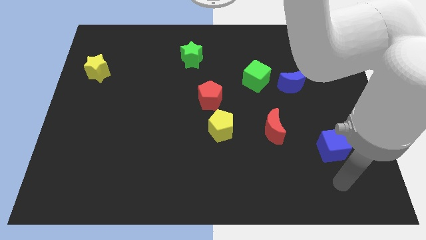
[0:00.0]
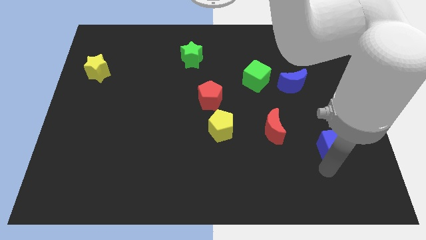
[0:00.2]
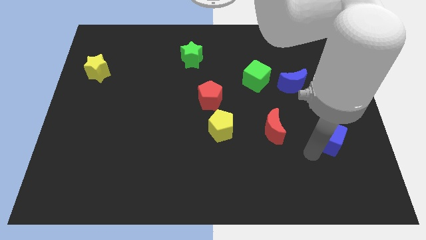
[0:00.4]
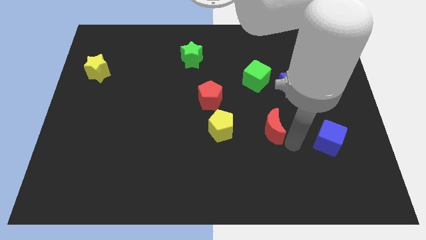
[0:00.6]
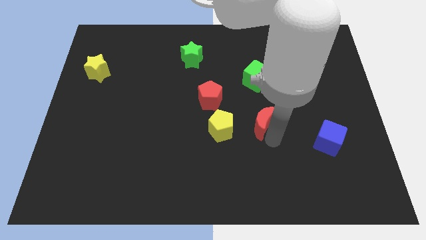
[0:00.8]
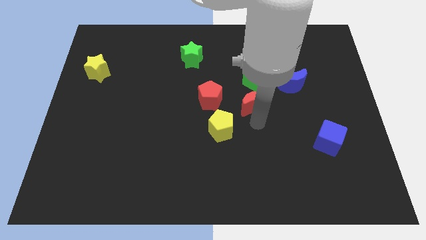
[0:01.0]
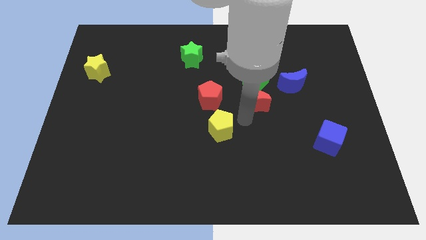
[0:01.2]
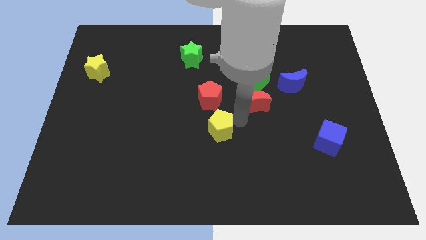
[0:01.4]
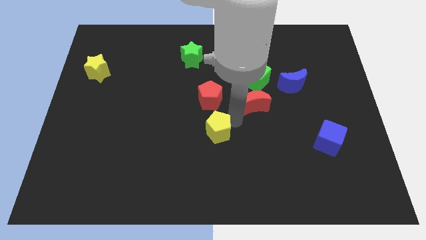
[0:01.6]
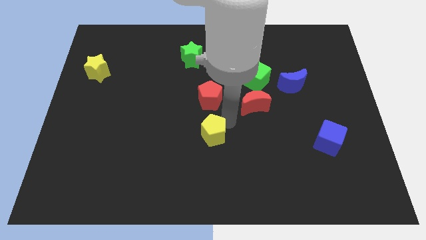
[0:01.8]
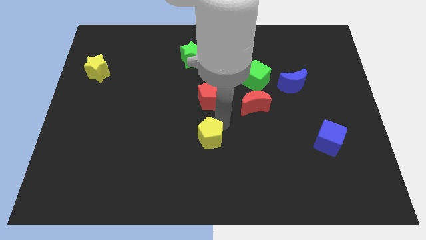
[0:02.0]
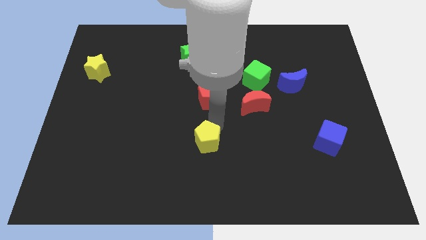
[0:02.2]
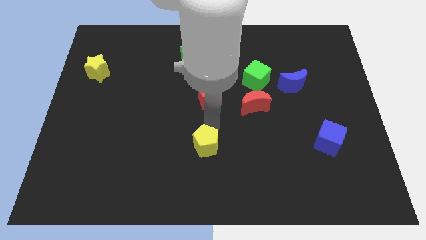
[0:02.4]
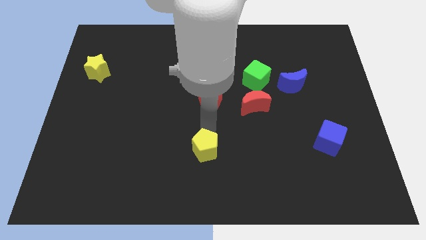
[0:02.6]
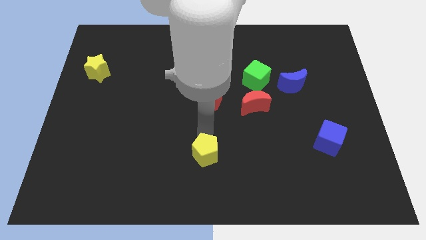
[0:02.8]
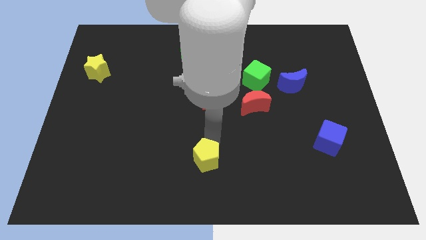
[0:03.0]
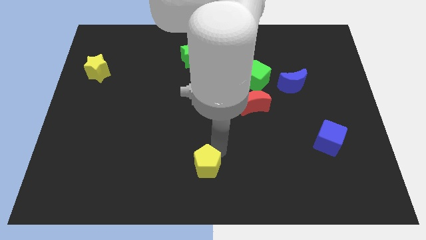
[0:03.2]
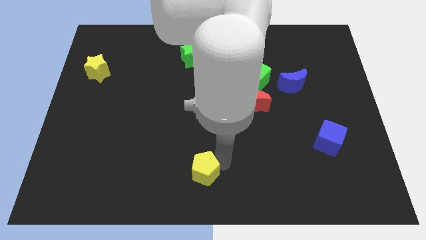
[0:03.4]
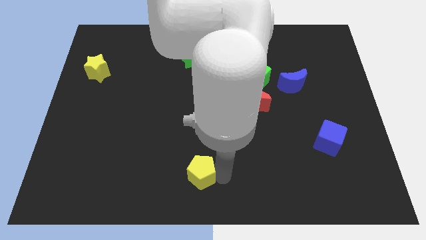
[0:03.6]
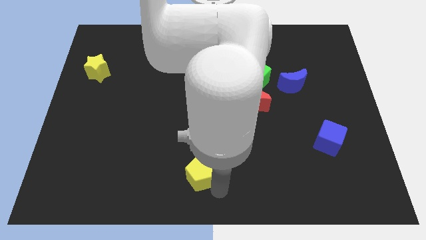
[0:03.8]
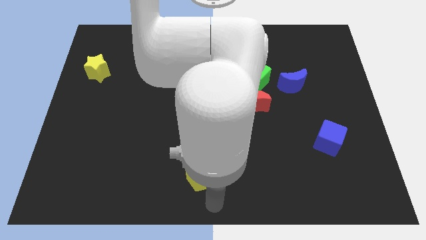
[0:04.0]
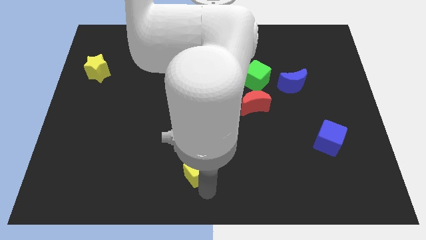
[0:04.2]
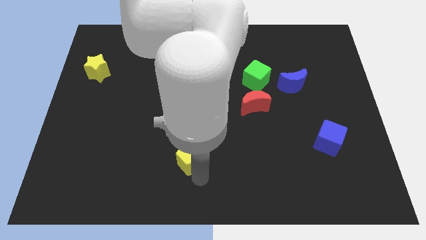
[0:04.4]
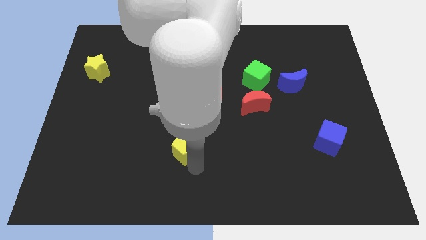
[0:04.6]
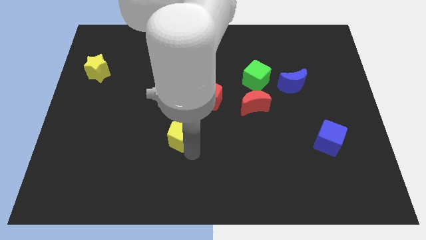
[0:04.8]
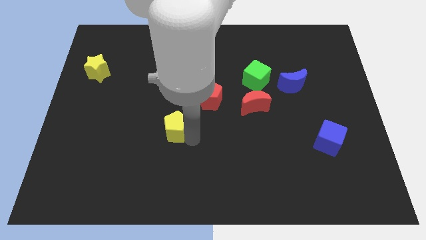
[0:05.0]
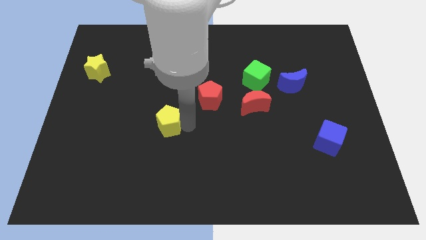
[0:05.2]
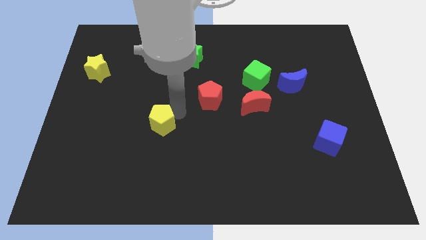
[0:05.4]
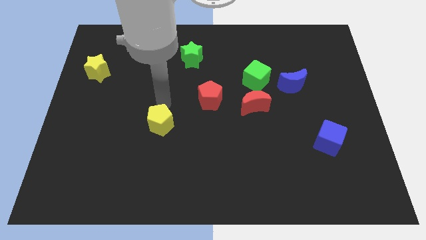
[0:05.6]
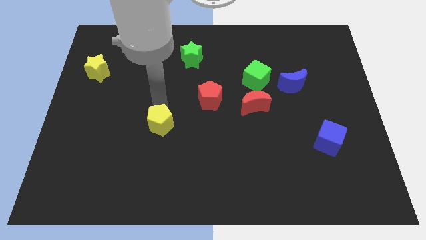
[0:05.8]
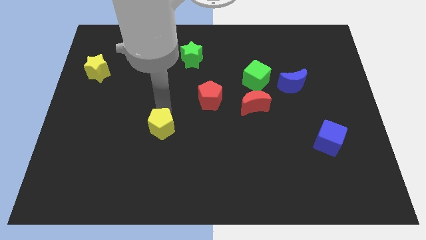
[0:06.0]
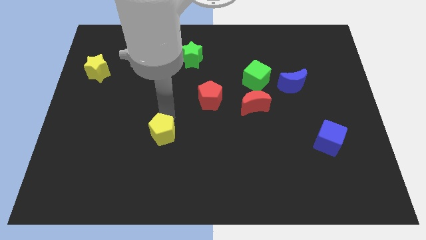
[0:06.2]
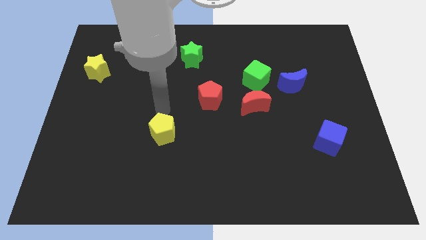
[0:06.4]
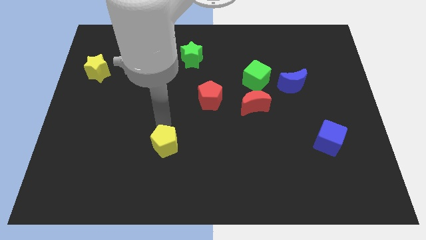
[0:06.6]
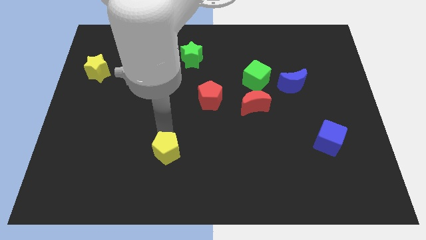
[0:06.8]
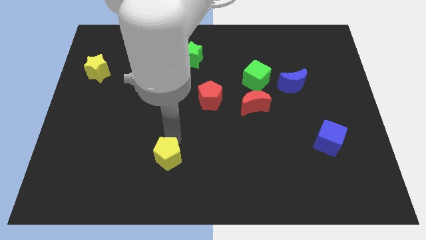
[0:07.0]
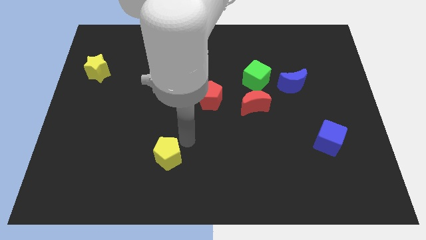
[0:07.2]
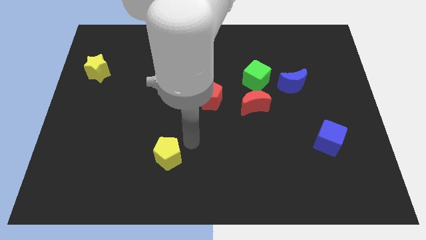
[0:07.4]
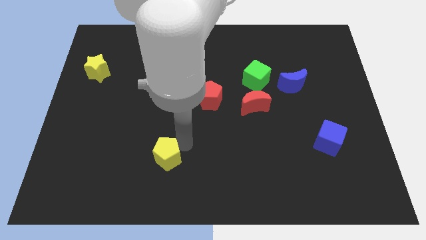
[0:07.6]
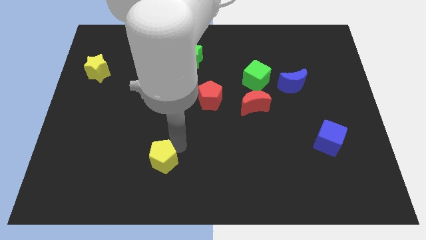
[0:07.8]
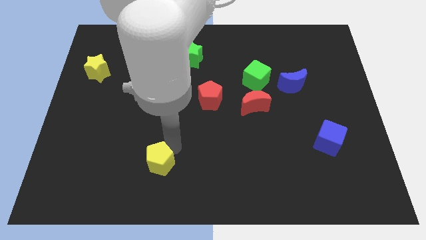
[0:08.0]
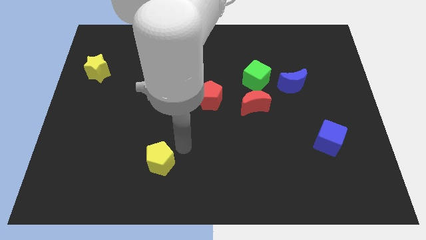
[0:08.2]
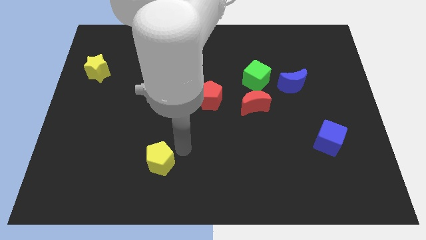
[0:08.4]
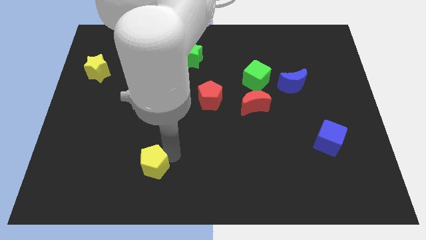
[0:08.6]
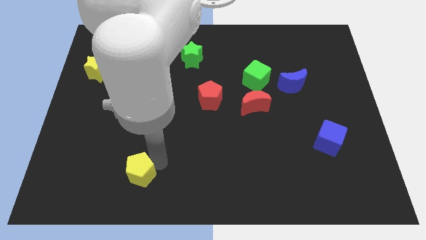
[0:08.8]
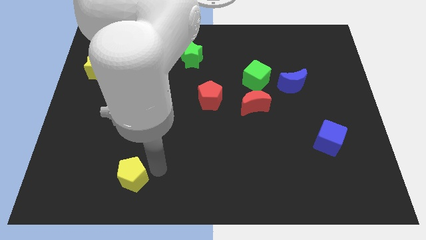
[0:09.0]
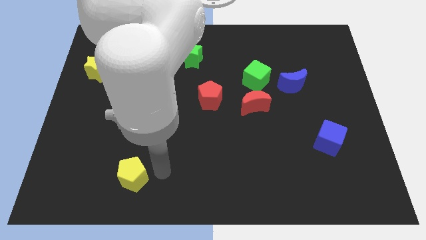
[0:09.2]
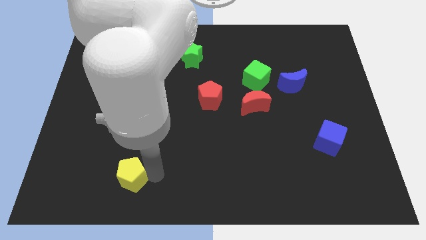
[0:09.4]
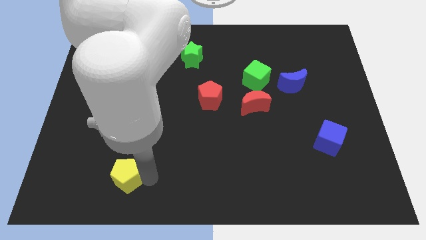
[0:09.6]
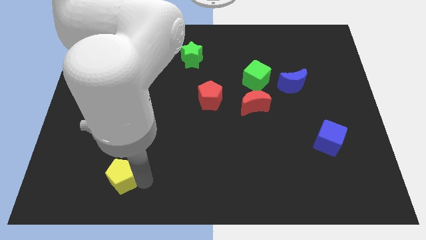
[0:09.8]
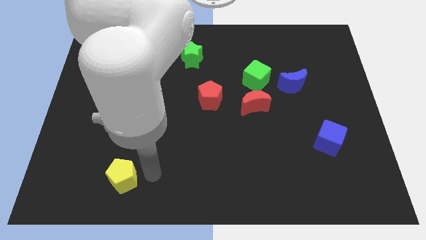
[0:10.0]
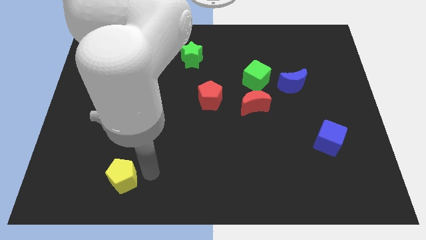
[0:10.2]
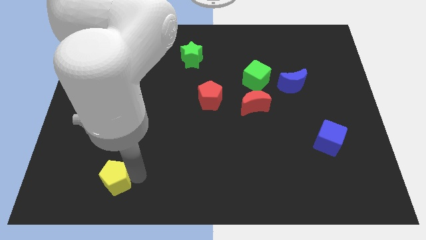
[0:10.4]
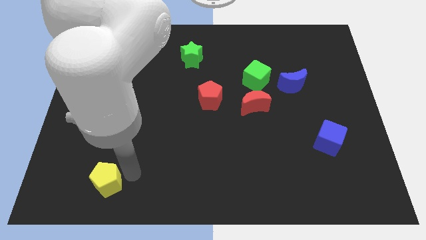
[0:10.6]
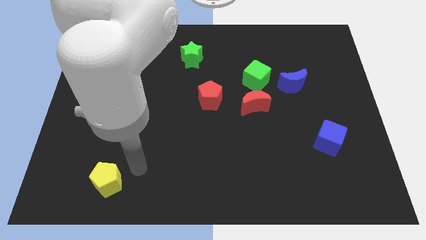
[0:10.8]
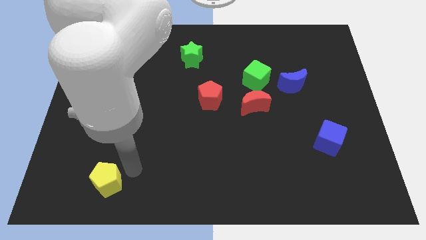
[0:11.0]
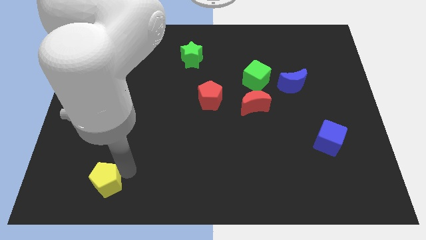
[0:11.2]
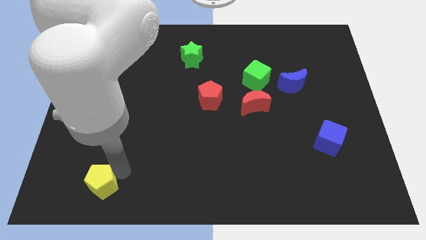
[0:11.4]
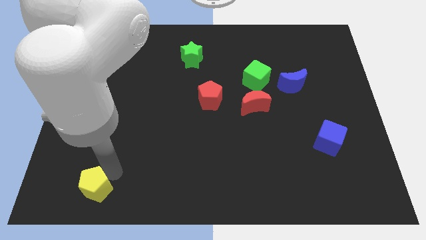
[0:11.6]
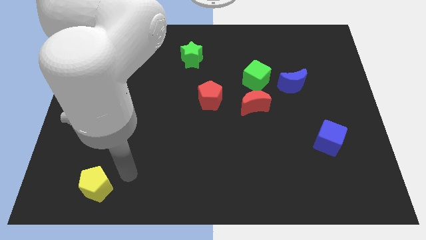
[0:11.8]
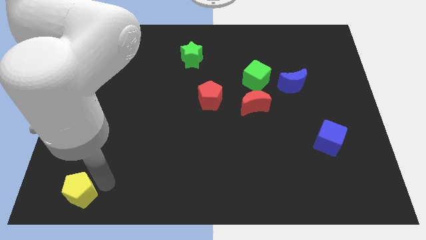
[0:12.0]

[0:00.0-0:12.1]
put the yellow pentagon to the bottom left

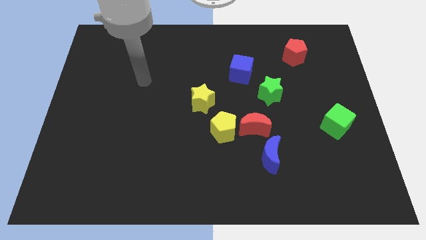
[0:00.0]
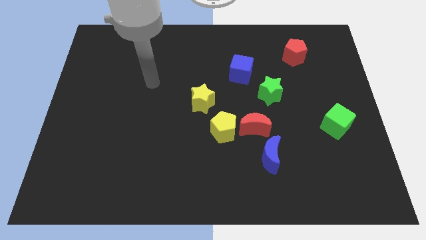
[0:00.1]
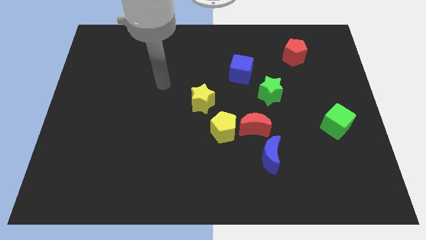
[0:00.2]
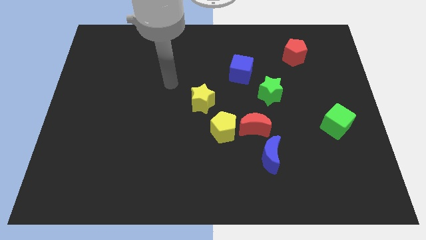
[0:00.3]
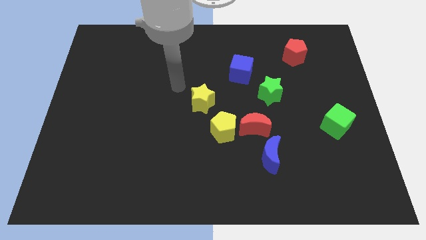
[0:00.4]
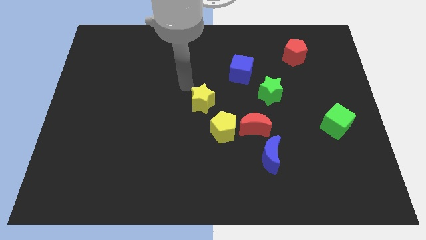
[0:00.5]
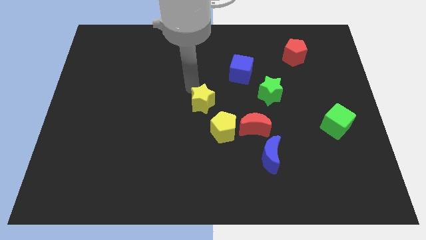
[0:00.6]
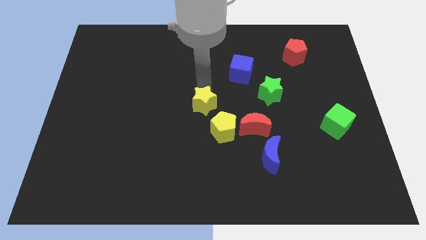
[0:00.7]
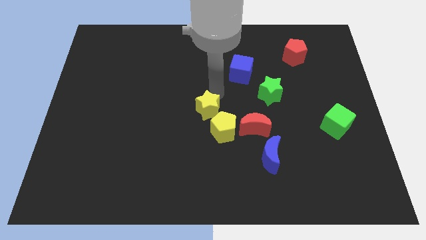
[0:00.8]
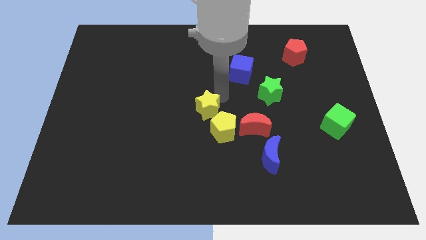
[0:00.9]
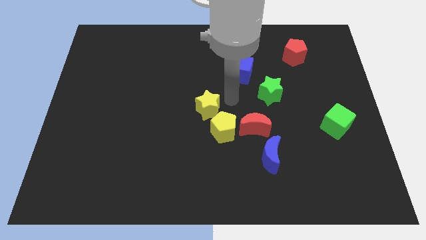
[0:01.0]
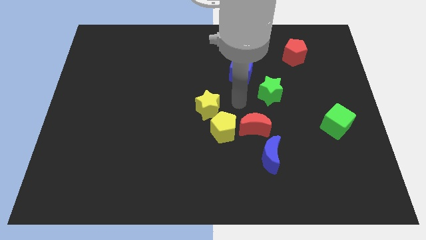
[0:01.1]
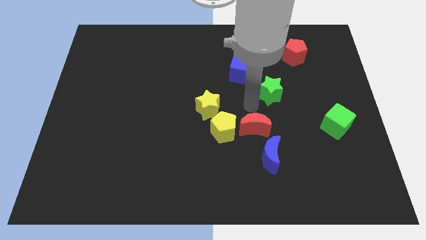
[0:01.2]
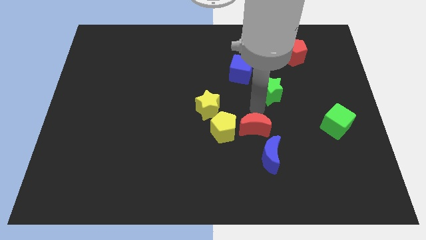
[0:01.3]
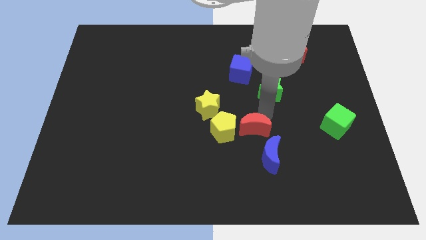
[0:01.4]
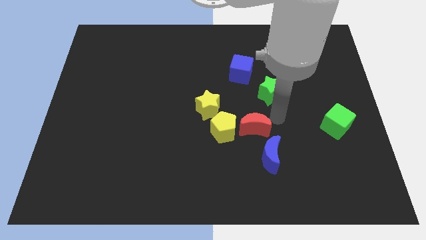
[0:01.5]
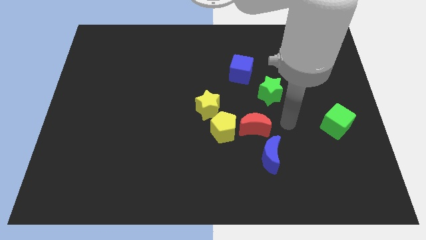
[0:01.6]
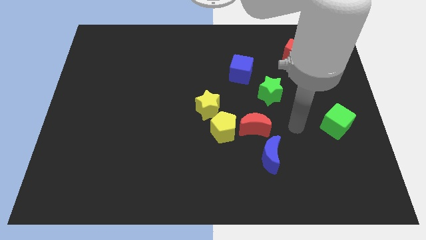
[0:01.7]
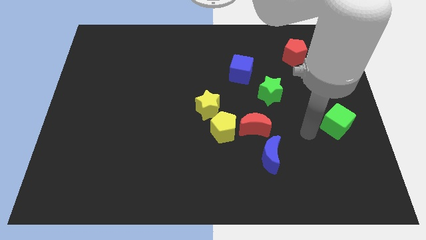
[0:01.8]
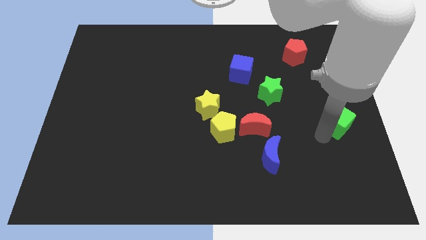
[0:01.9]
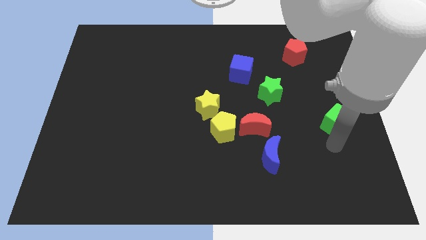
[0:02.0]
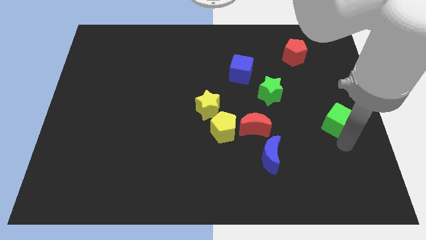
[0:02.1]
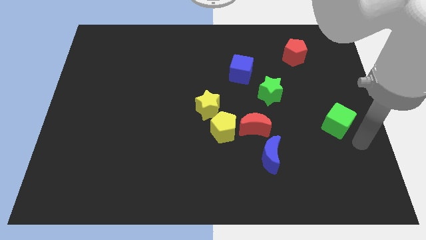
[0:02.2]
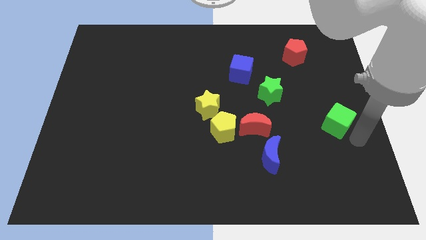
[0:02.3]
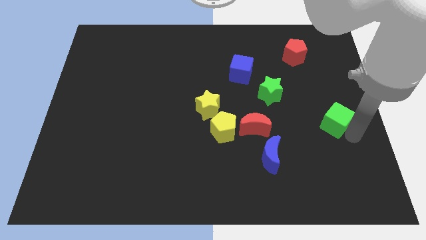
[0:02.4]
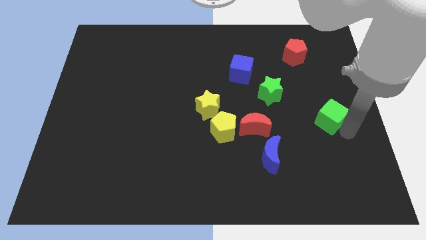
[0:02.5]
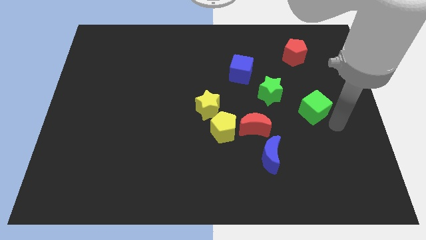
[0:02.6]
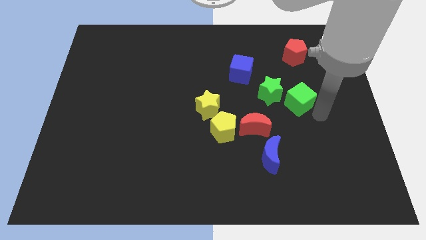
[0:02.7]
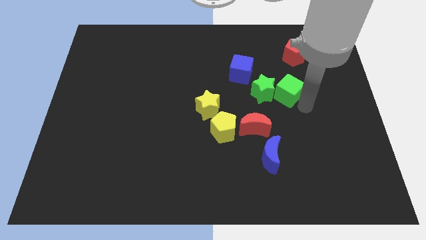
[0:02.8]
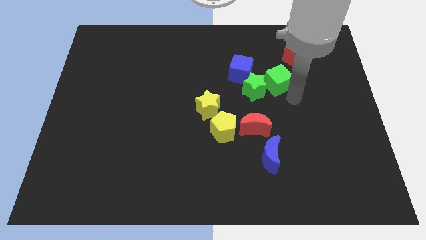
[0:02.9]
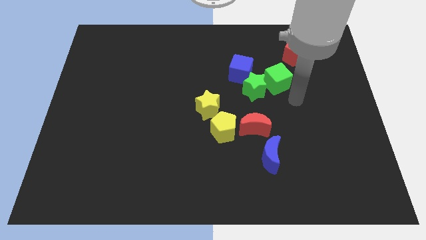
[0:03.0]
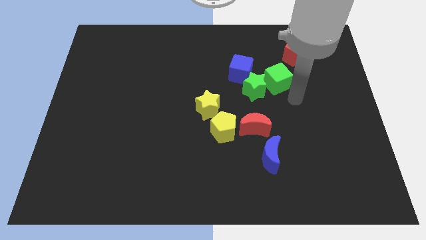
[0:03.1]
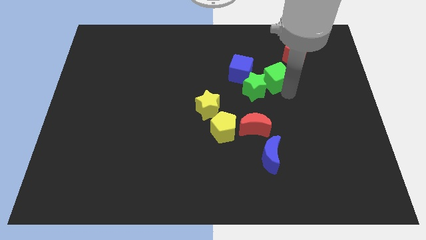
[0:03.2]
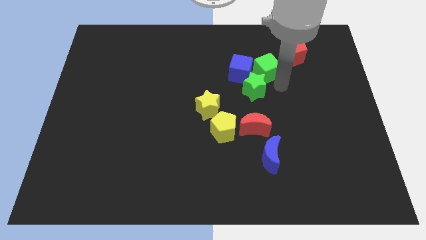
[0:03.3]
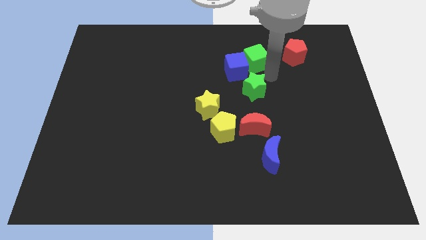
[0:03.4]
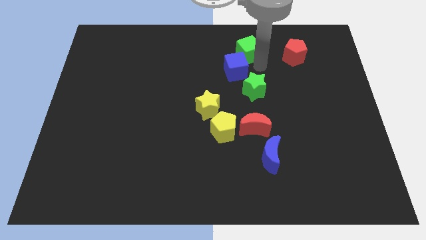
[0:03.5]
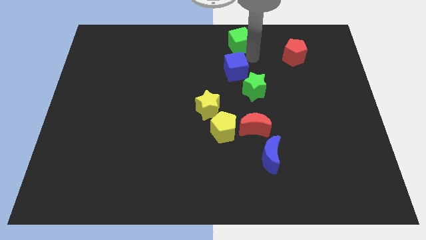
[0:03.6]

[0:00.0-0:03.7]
put the green cube to the top
